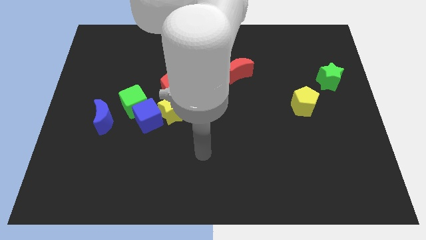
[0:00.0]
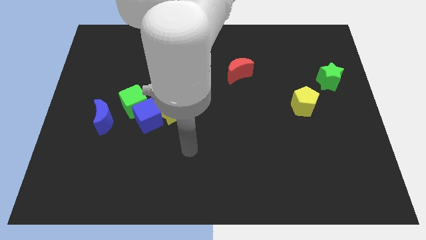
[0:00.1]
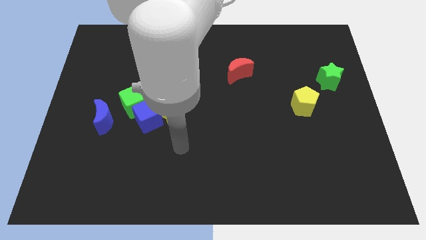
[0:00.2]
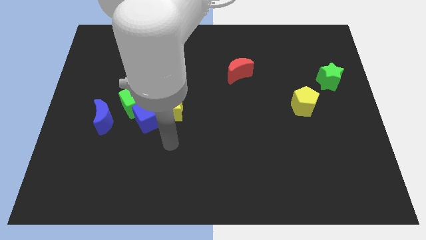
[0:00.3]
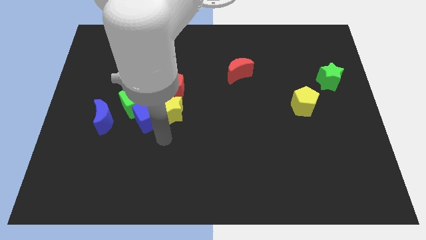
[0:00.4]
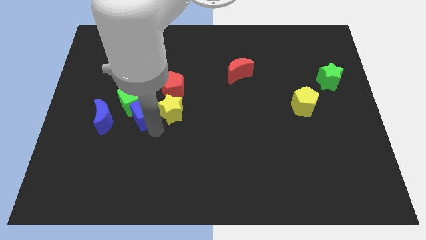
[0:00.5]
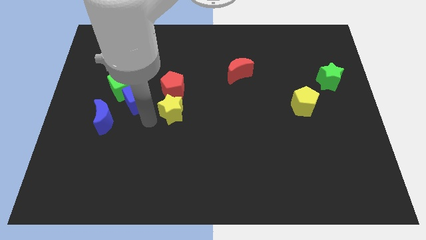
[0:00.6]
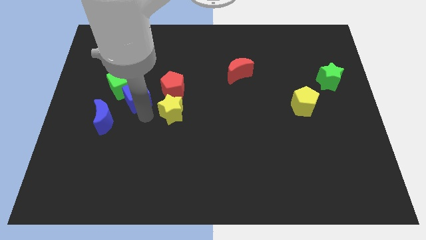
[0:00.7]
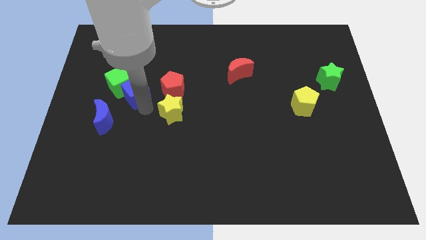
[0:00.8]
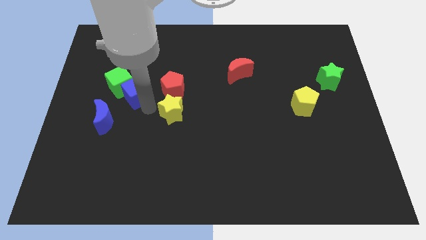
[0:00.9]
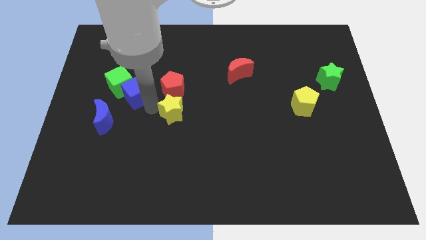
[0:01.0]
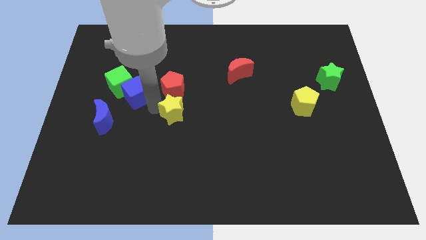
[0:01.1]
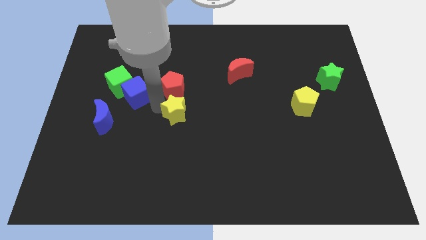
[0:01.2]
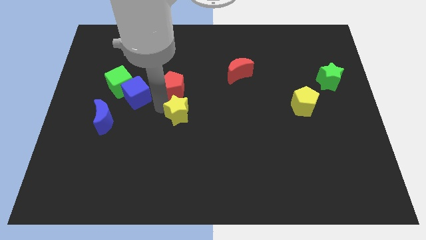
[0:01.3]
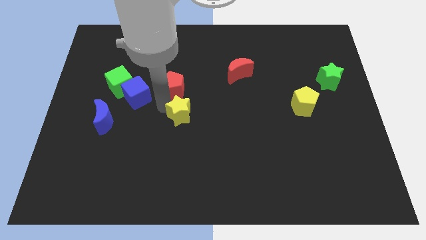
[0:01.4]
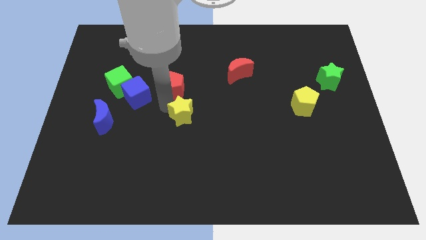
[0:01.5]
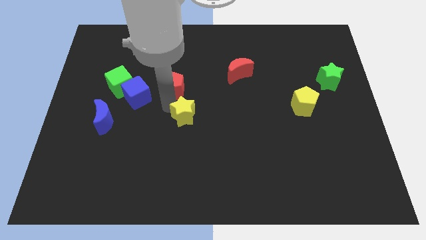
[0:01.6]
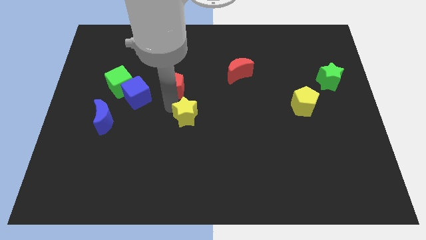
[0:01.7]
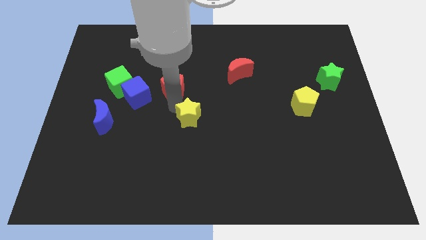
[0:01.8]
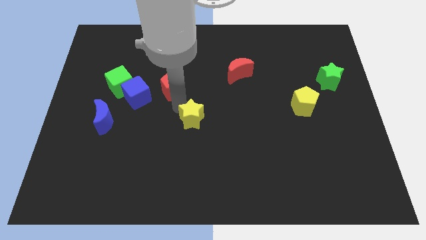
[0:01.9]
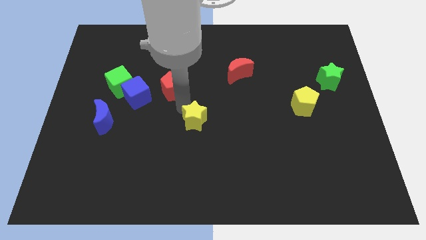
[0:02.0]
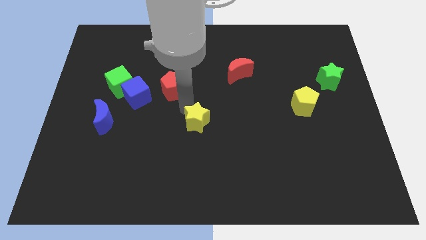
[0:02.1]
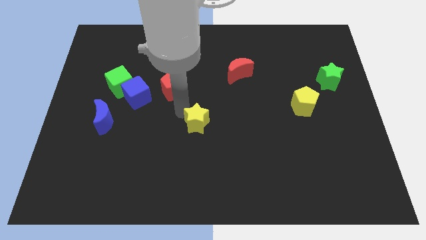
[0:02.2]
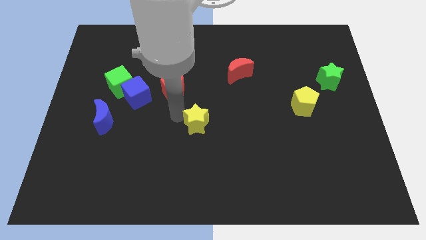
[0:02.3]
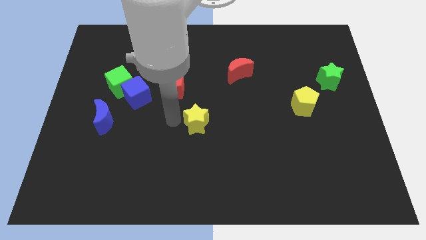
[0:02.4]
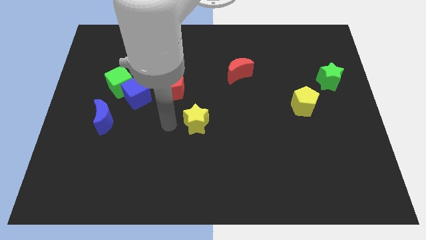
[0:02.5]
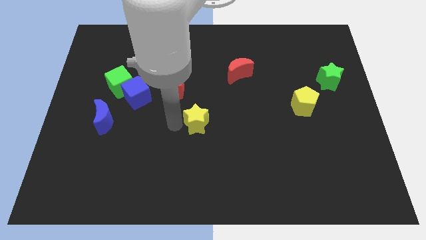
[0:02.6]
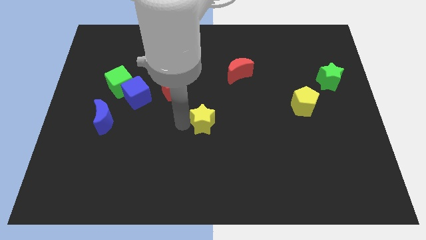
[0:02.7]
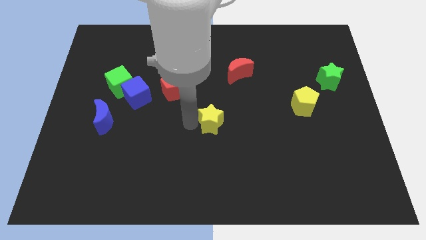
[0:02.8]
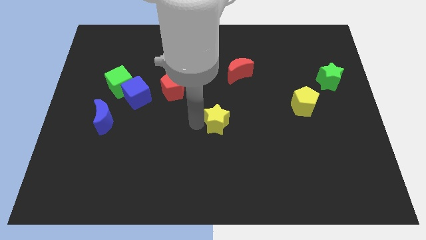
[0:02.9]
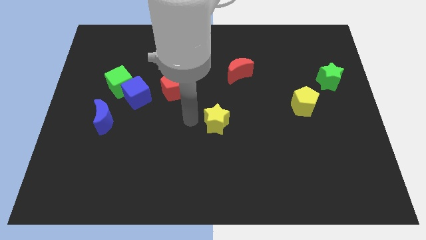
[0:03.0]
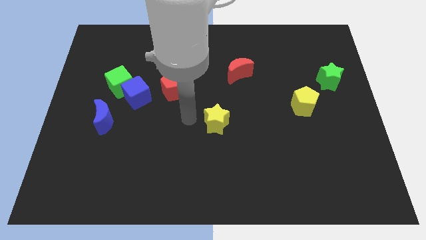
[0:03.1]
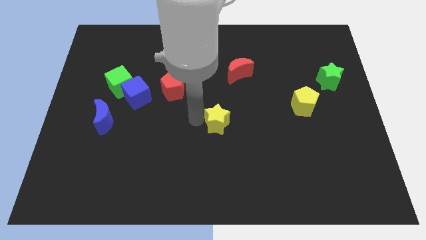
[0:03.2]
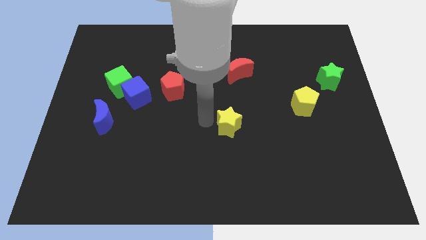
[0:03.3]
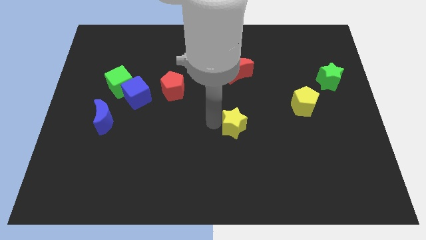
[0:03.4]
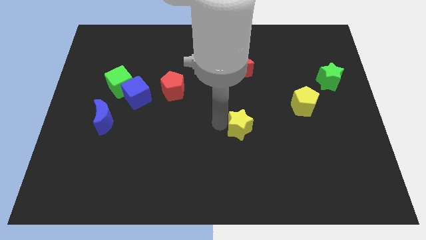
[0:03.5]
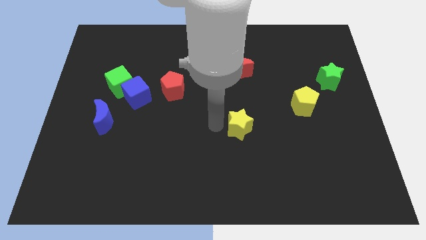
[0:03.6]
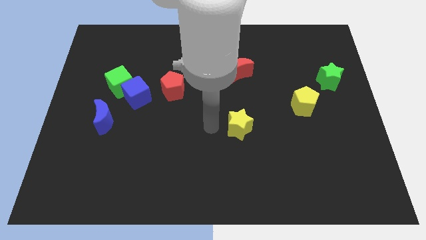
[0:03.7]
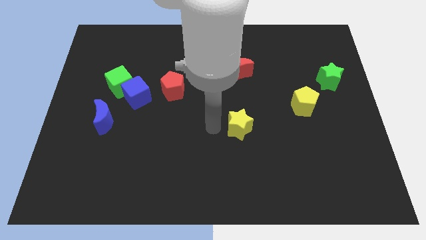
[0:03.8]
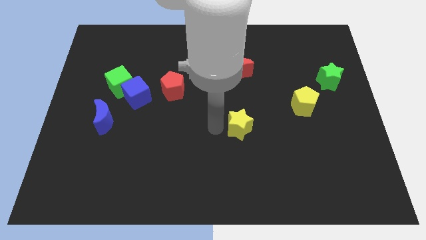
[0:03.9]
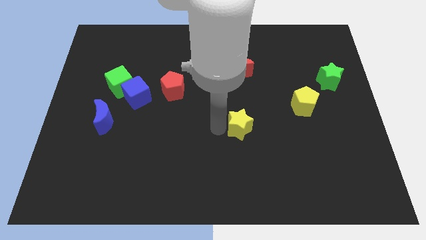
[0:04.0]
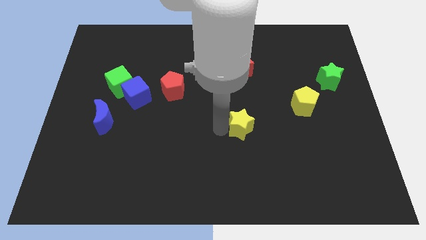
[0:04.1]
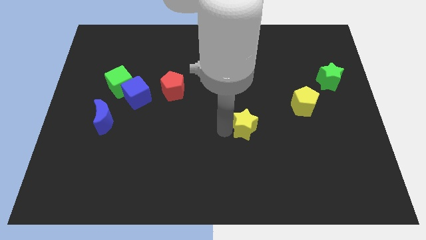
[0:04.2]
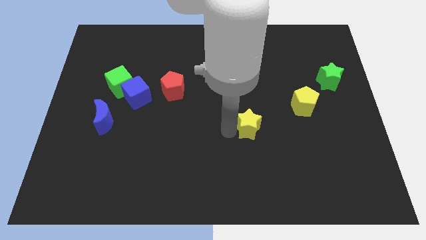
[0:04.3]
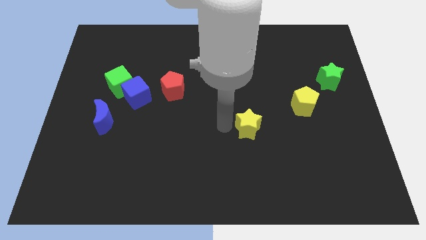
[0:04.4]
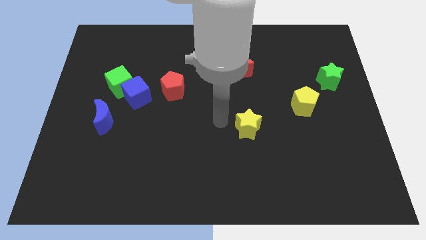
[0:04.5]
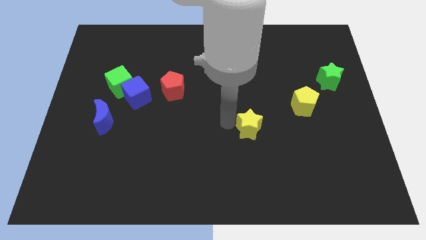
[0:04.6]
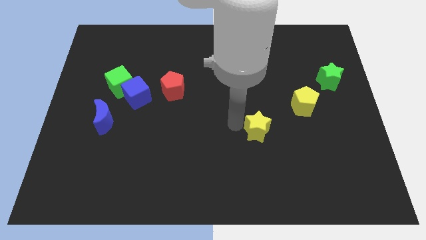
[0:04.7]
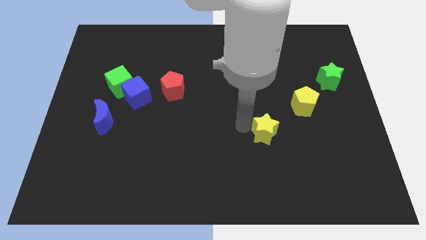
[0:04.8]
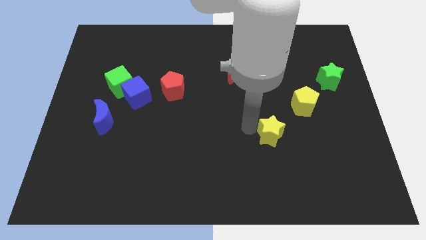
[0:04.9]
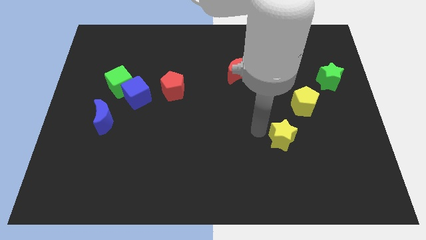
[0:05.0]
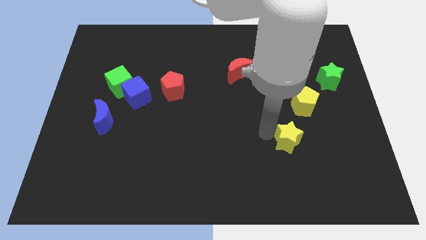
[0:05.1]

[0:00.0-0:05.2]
push the yellow star below the yellow pentagon

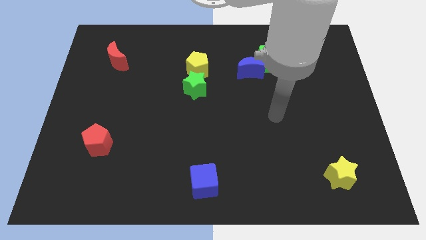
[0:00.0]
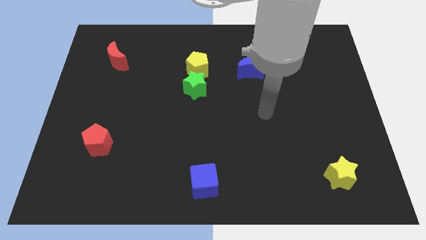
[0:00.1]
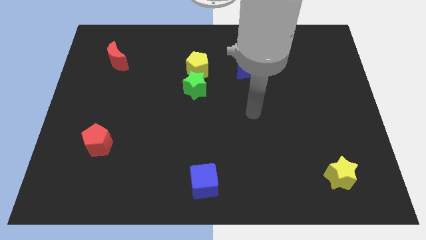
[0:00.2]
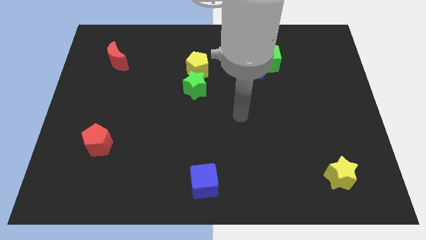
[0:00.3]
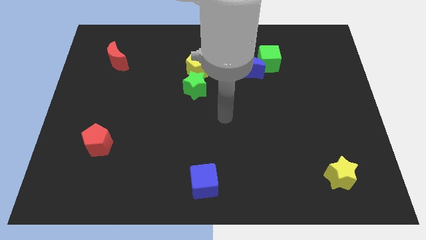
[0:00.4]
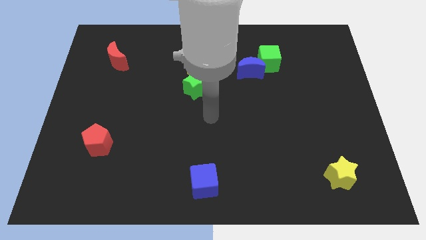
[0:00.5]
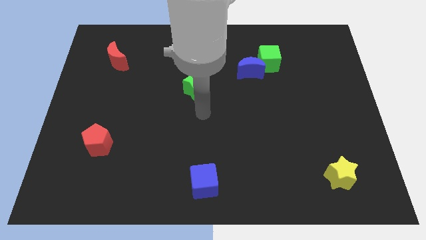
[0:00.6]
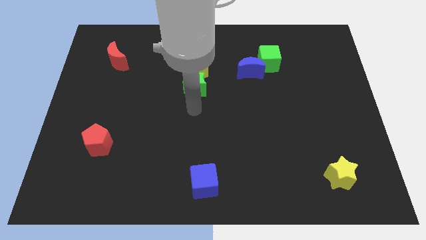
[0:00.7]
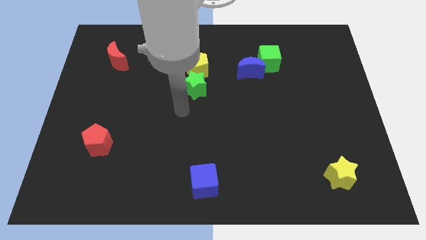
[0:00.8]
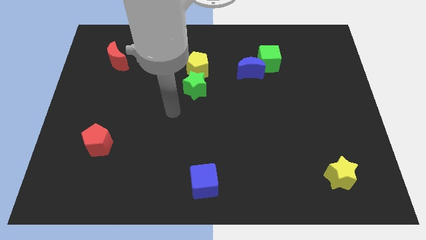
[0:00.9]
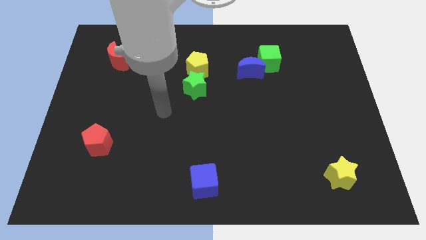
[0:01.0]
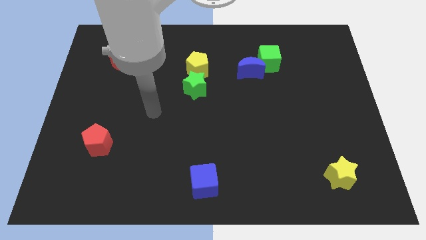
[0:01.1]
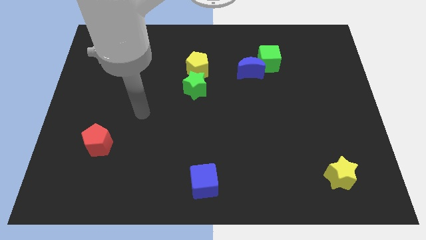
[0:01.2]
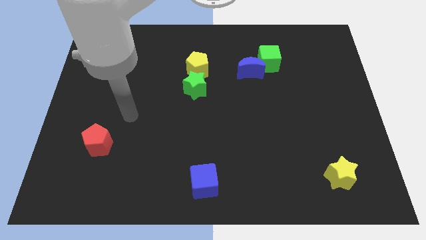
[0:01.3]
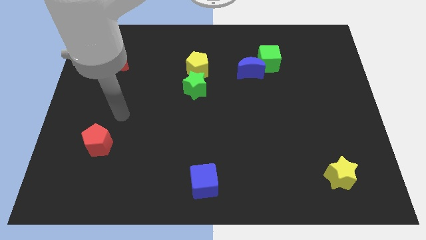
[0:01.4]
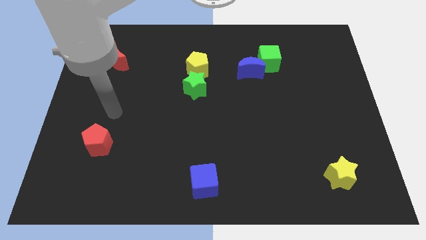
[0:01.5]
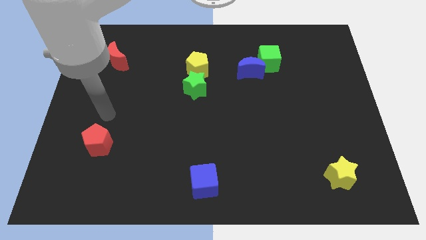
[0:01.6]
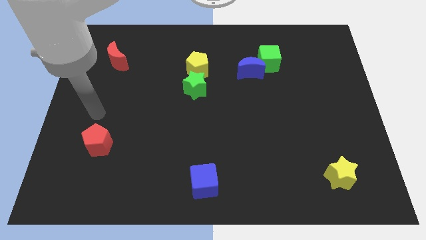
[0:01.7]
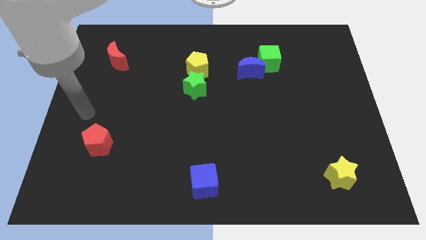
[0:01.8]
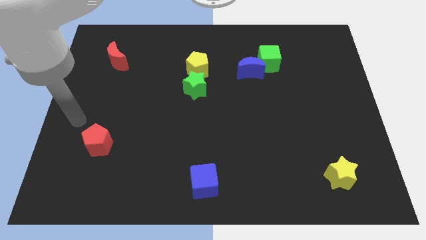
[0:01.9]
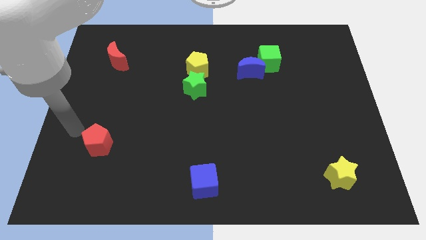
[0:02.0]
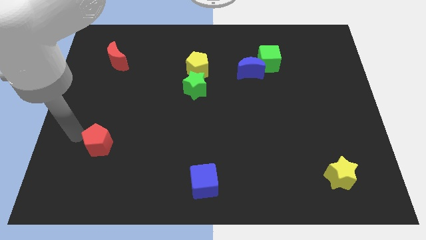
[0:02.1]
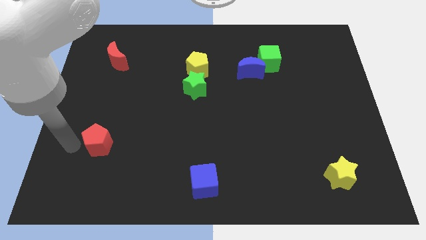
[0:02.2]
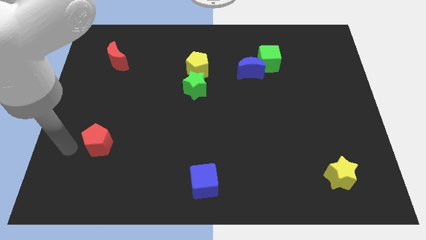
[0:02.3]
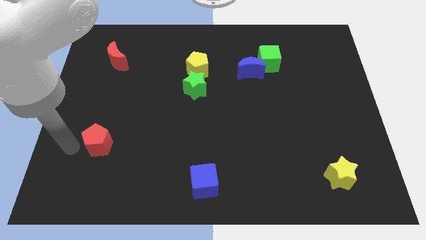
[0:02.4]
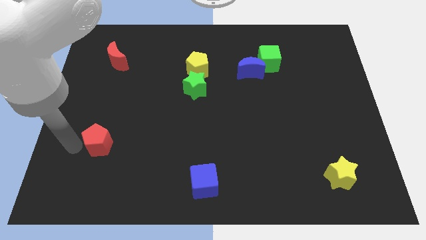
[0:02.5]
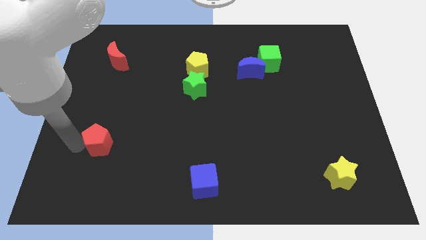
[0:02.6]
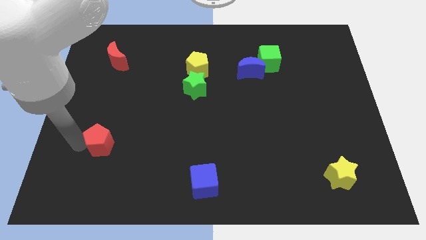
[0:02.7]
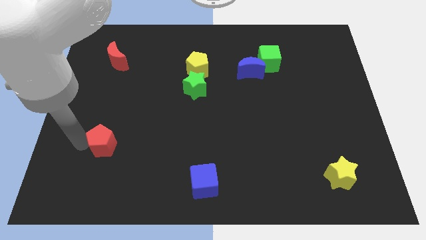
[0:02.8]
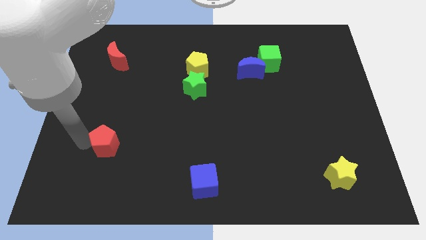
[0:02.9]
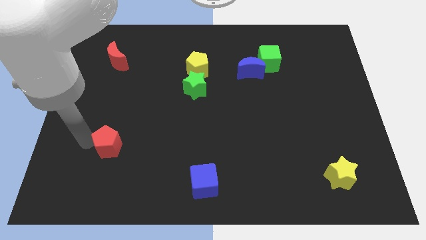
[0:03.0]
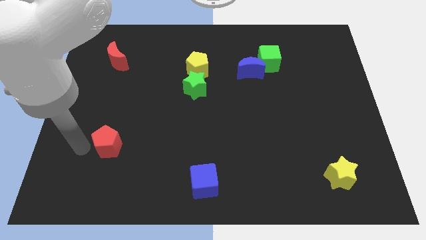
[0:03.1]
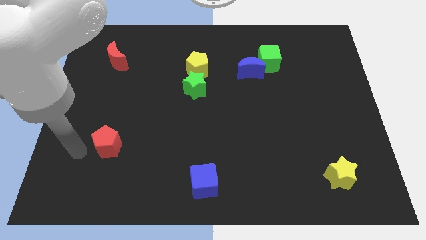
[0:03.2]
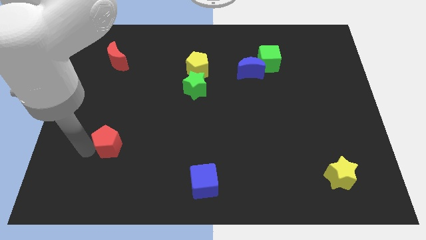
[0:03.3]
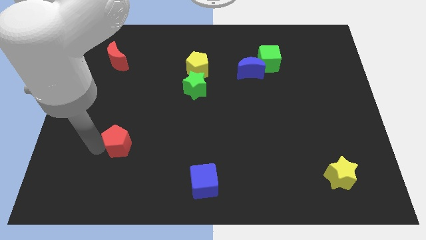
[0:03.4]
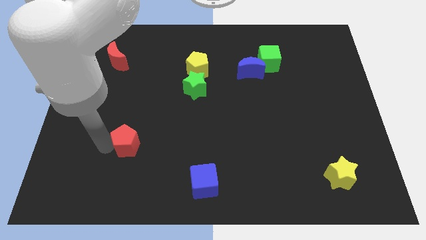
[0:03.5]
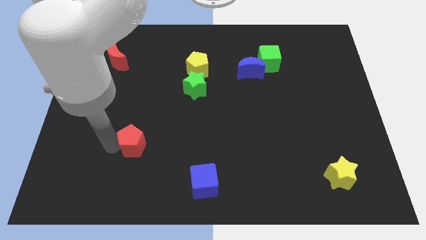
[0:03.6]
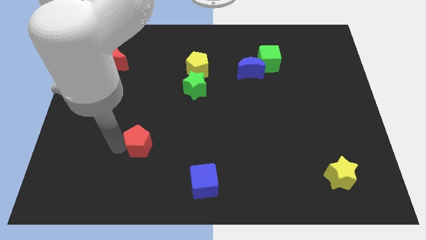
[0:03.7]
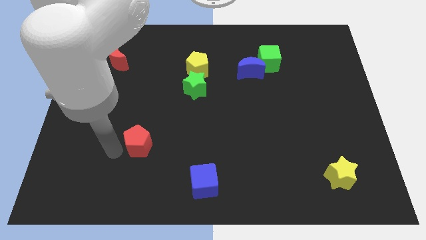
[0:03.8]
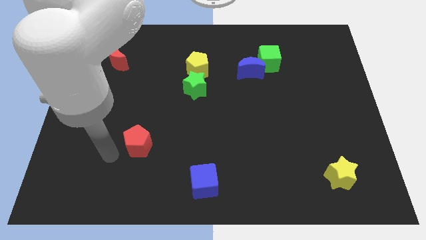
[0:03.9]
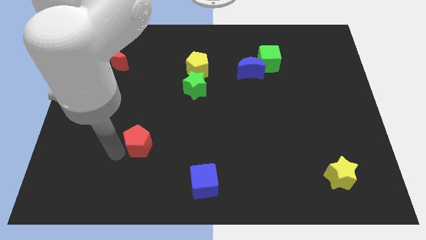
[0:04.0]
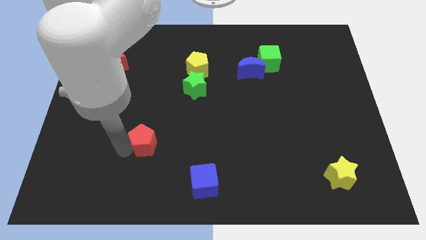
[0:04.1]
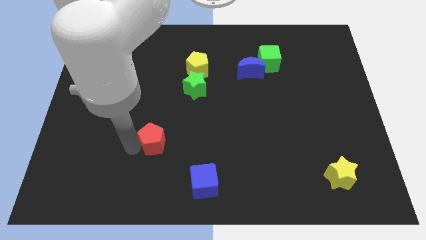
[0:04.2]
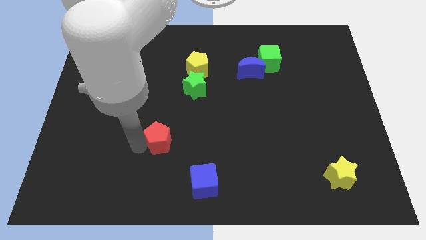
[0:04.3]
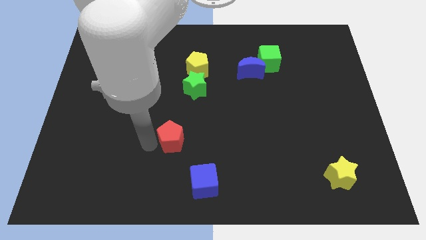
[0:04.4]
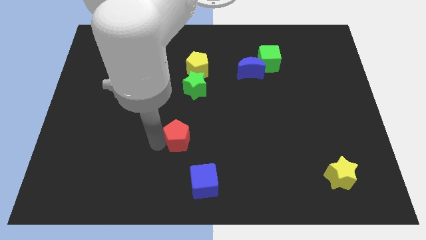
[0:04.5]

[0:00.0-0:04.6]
move the red pentagon to the bottom of the green star
